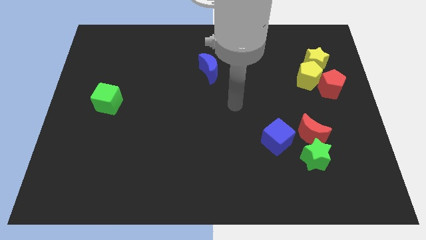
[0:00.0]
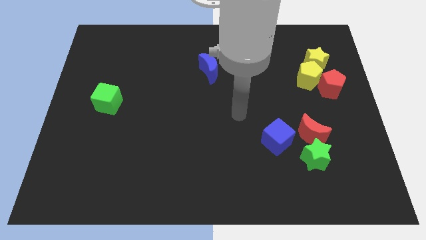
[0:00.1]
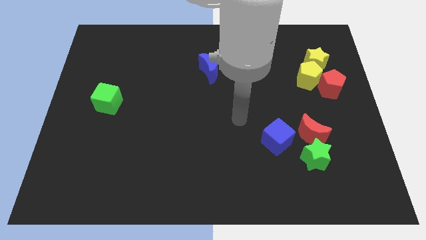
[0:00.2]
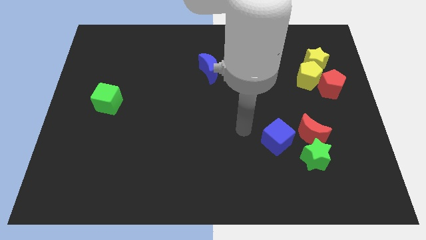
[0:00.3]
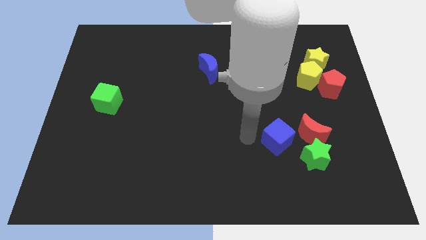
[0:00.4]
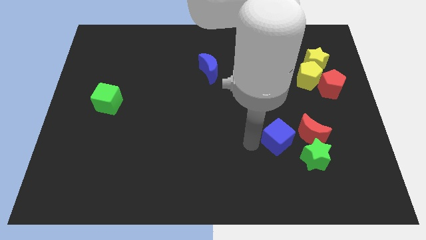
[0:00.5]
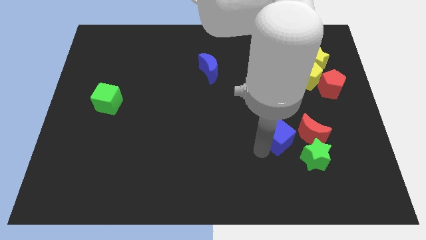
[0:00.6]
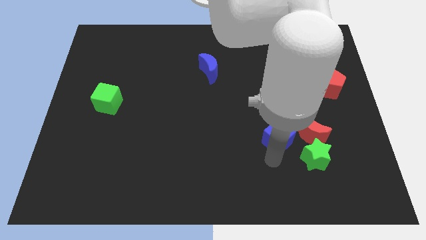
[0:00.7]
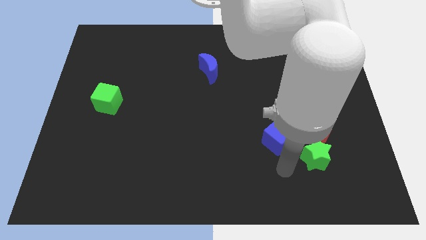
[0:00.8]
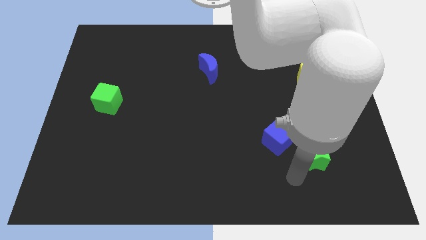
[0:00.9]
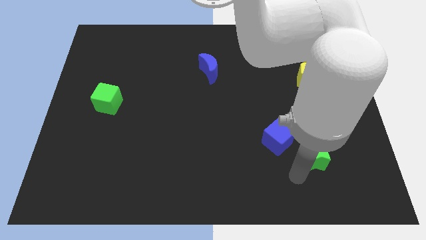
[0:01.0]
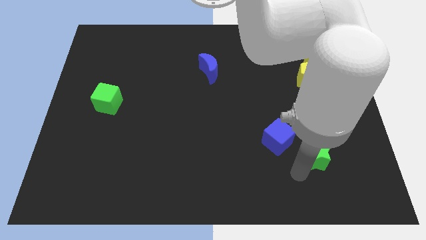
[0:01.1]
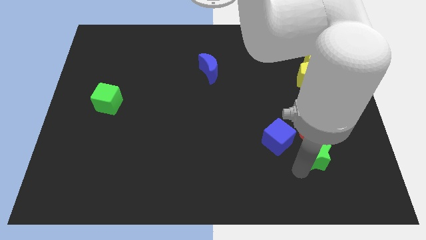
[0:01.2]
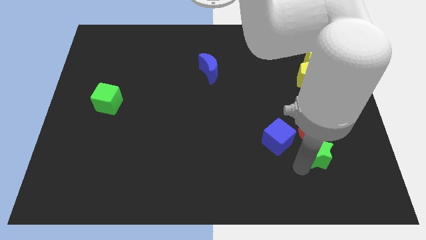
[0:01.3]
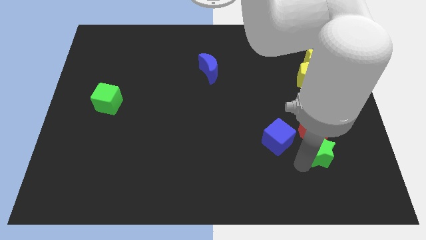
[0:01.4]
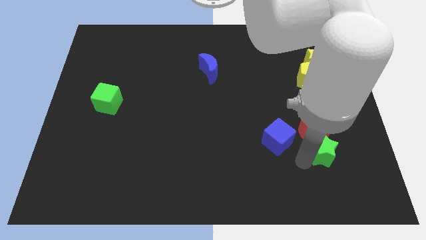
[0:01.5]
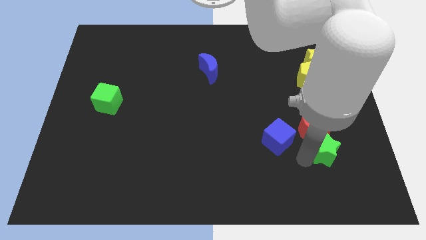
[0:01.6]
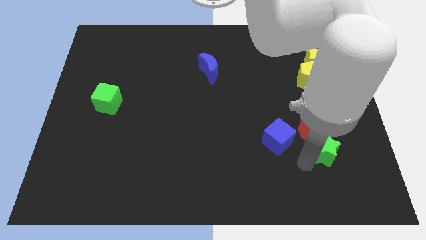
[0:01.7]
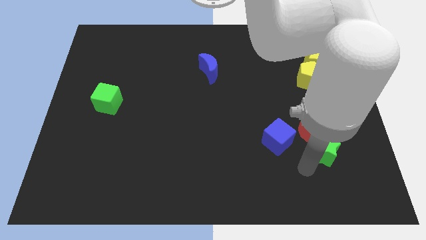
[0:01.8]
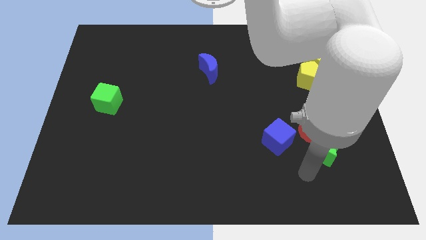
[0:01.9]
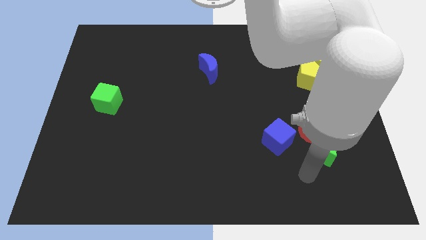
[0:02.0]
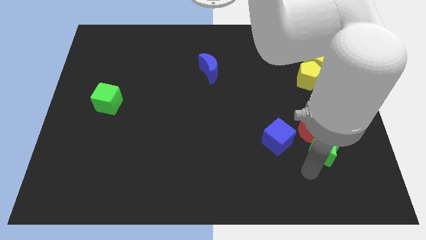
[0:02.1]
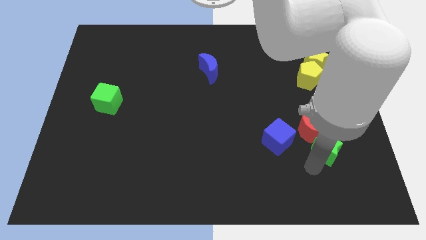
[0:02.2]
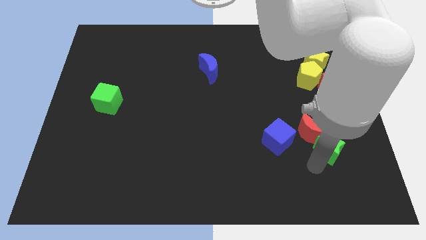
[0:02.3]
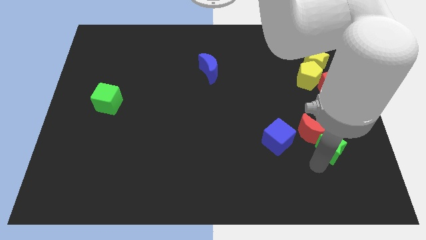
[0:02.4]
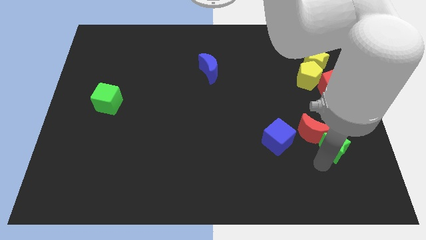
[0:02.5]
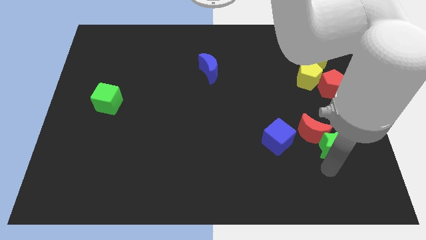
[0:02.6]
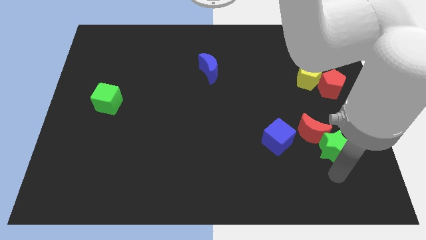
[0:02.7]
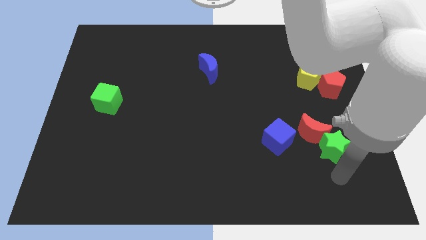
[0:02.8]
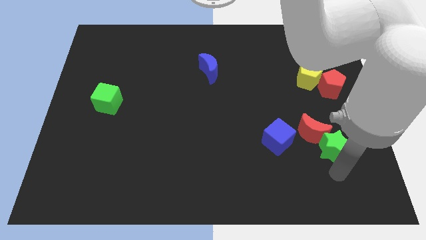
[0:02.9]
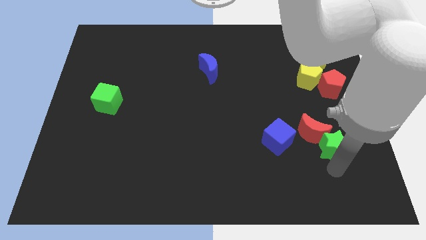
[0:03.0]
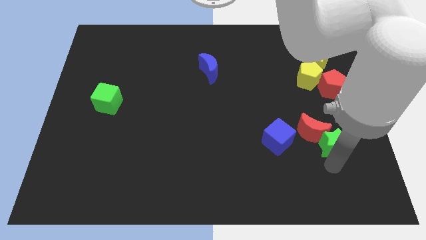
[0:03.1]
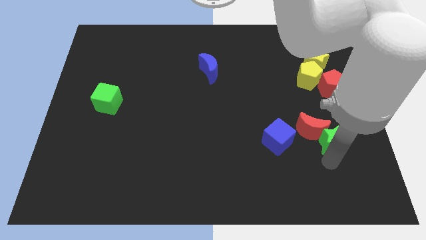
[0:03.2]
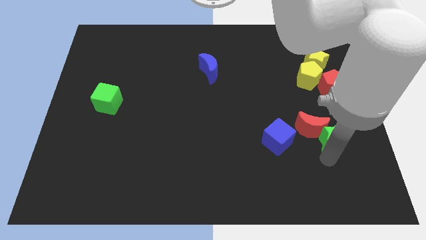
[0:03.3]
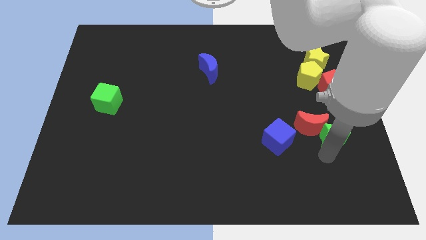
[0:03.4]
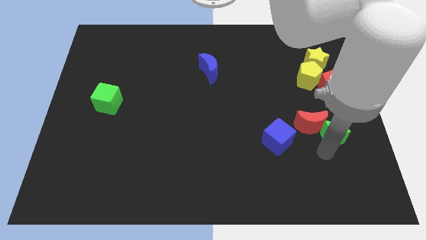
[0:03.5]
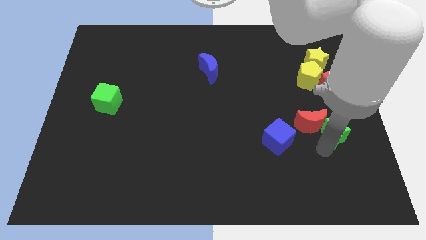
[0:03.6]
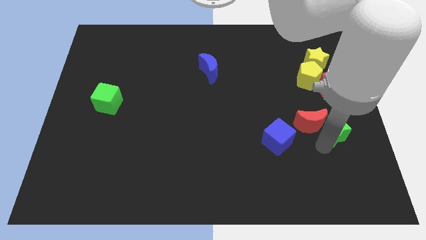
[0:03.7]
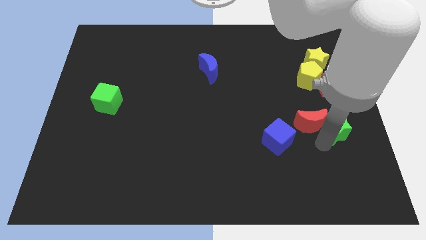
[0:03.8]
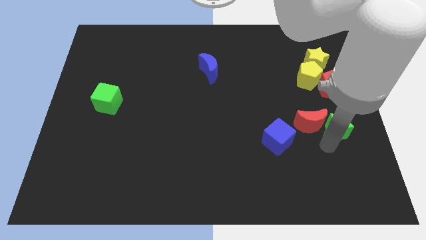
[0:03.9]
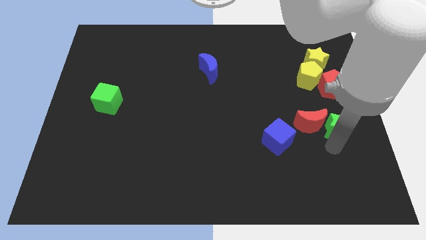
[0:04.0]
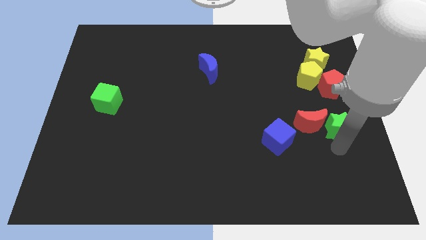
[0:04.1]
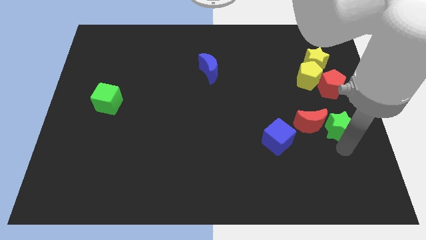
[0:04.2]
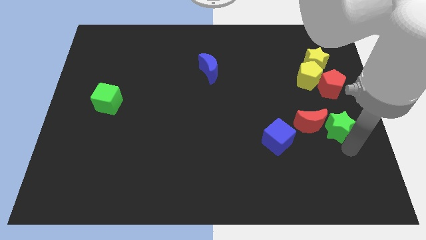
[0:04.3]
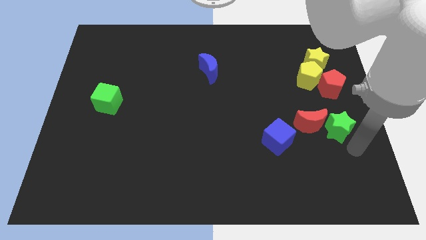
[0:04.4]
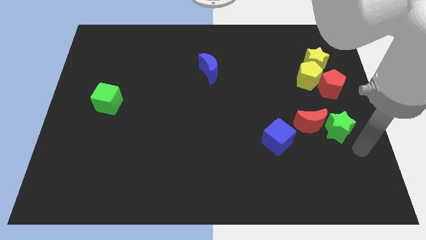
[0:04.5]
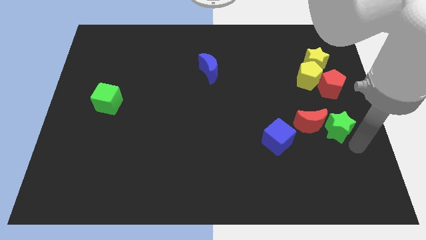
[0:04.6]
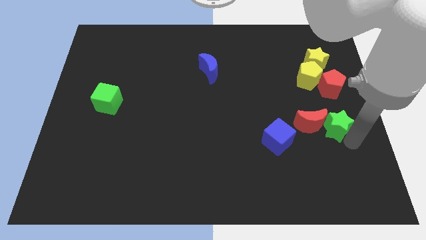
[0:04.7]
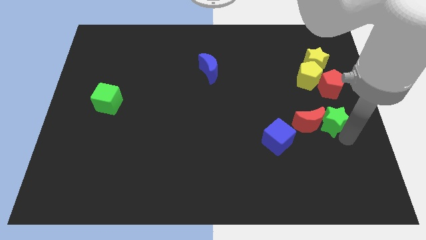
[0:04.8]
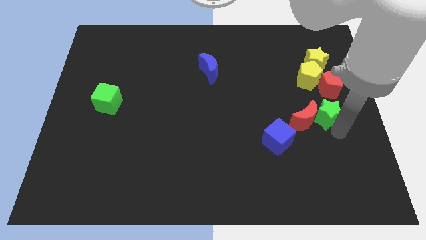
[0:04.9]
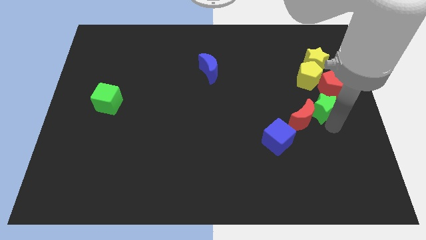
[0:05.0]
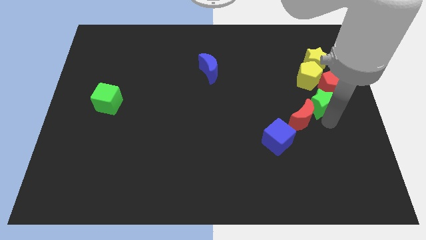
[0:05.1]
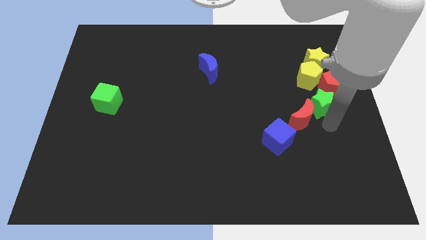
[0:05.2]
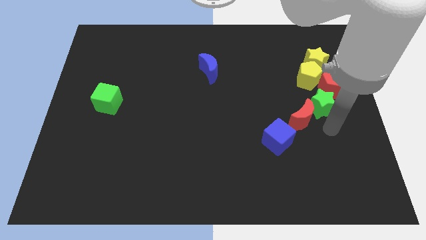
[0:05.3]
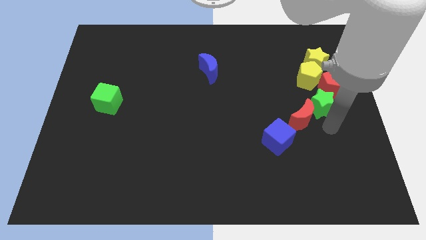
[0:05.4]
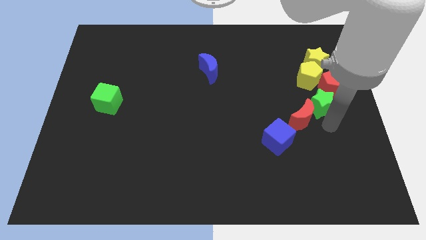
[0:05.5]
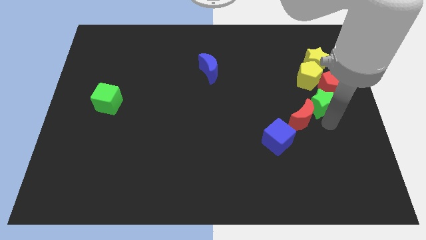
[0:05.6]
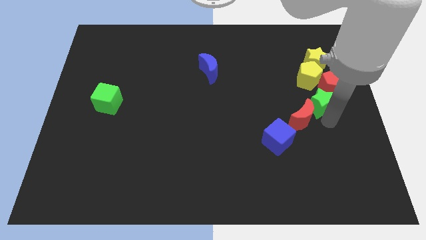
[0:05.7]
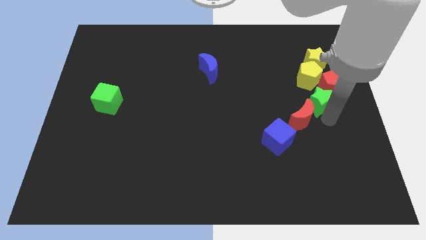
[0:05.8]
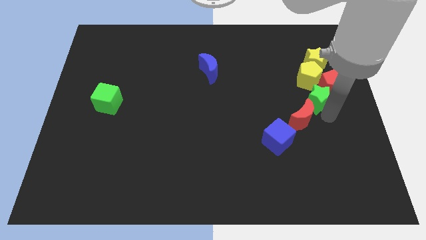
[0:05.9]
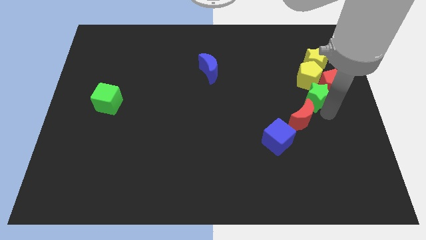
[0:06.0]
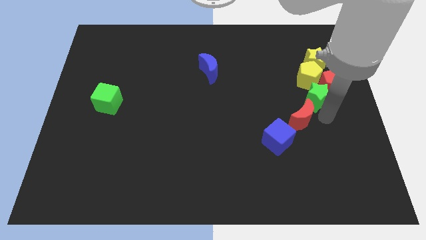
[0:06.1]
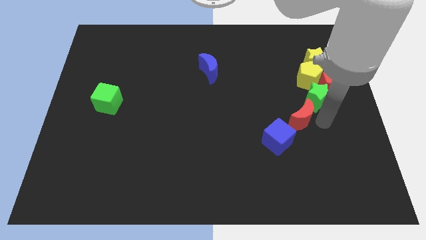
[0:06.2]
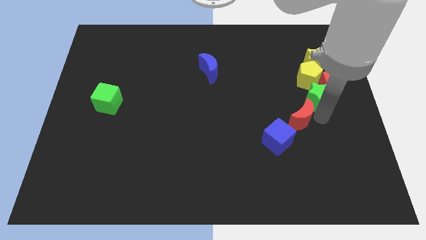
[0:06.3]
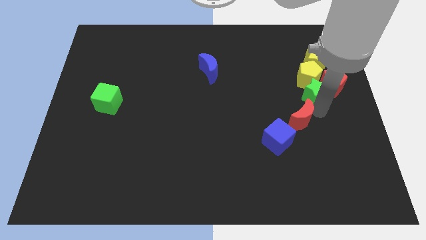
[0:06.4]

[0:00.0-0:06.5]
slide the green star next to the yellow pentagon
